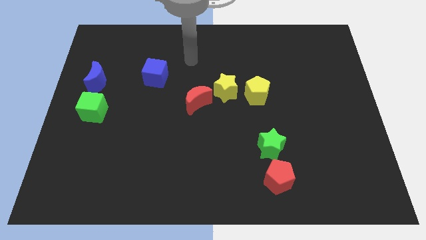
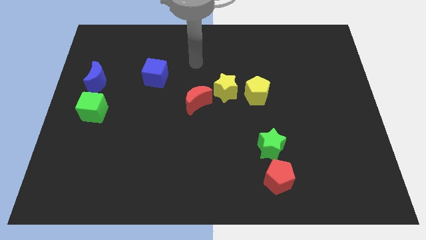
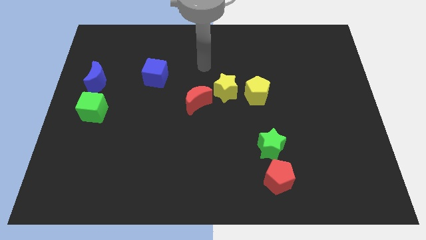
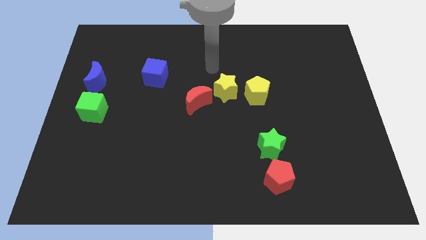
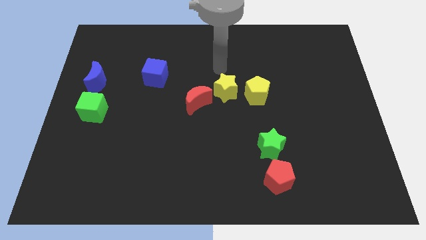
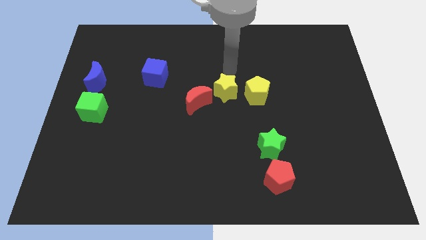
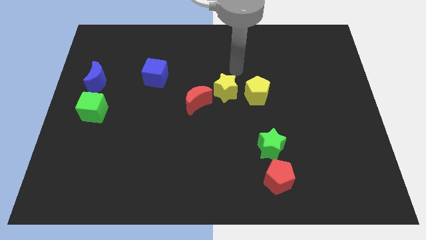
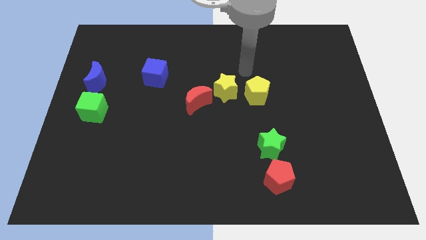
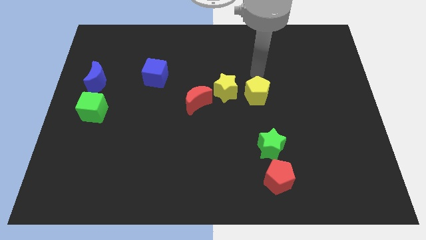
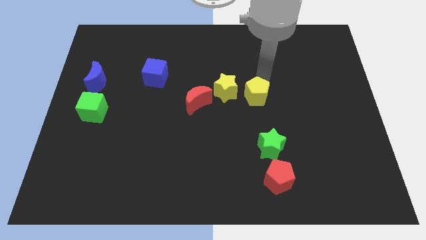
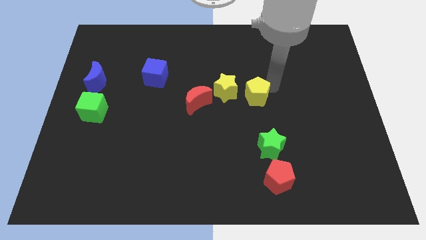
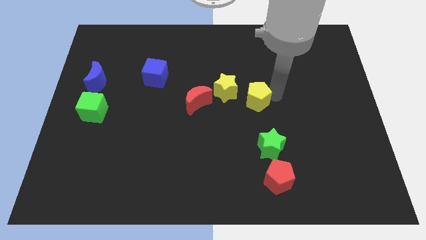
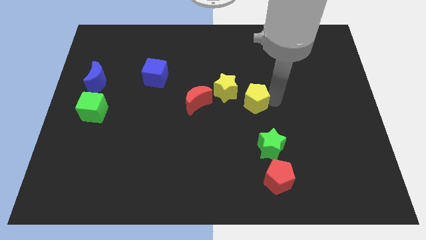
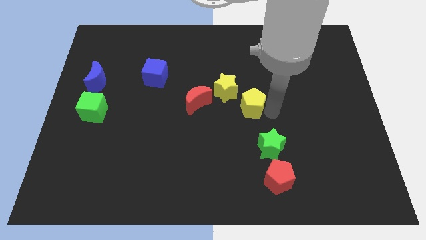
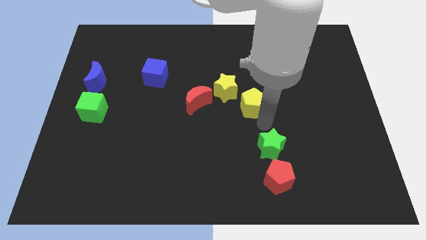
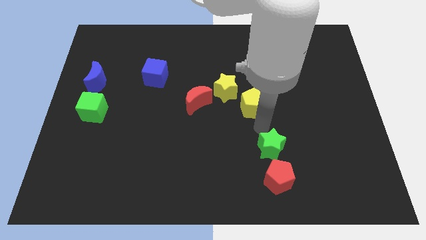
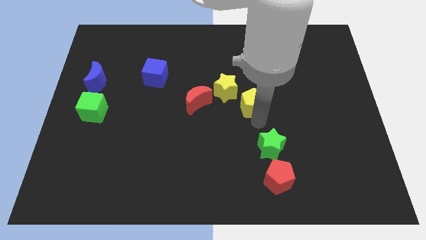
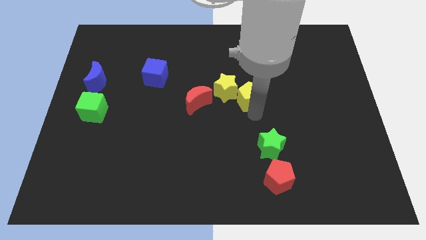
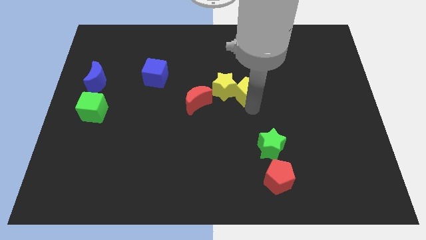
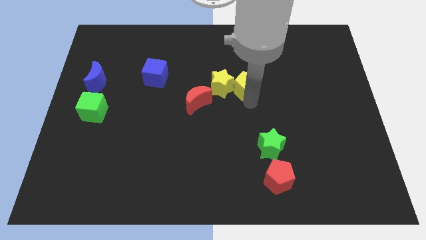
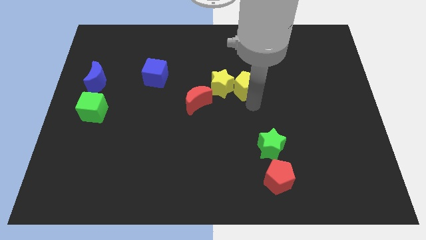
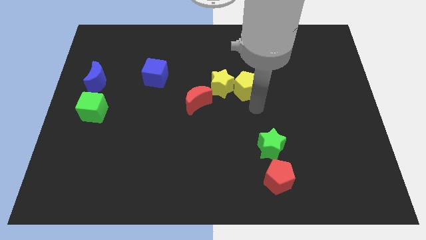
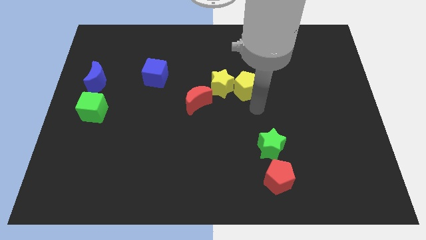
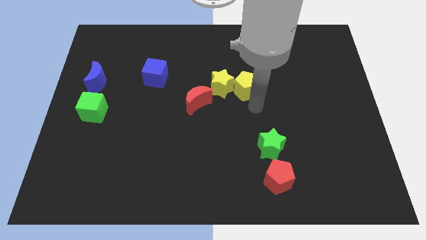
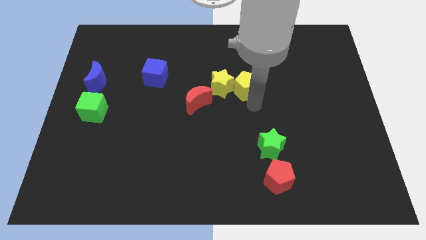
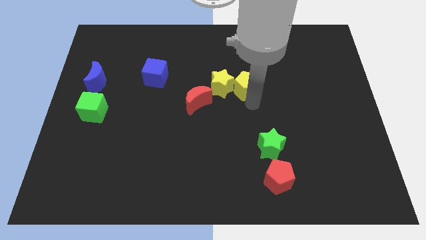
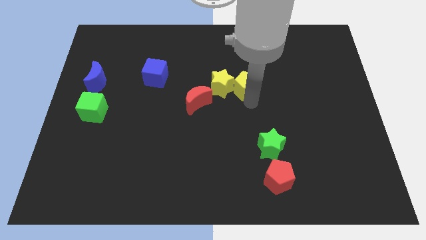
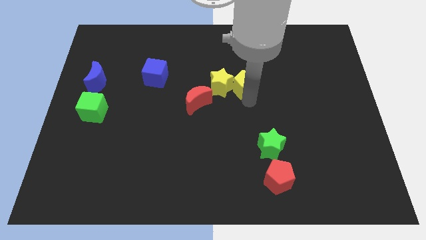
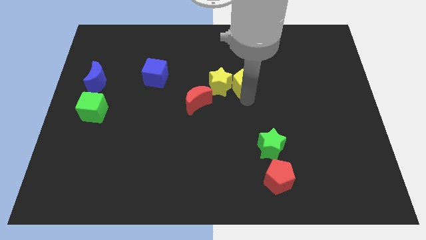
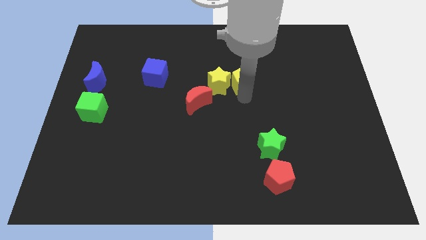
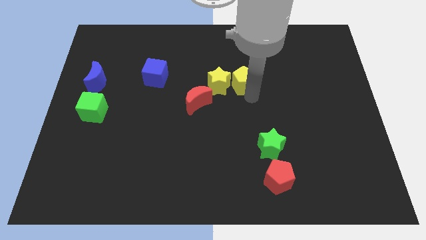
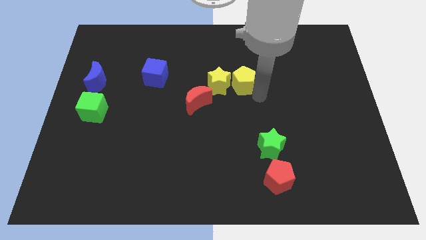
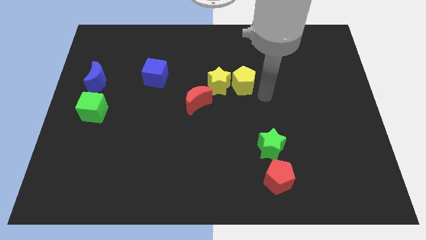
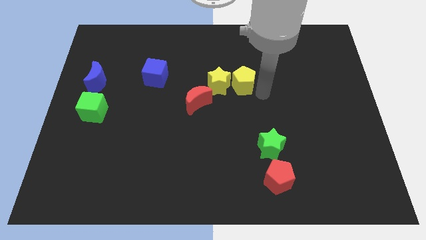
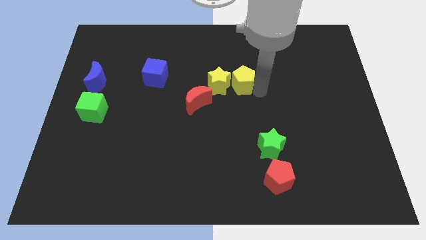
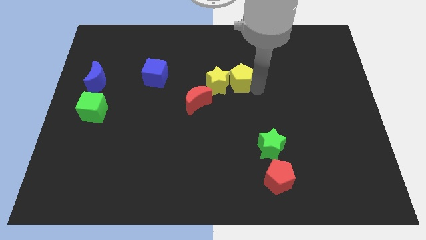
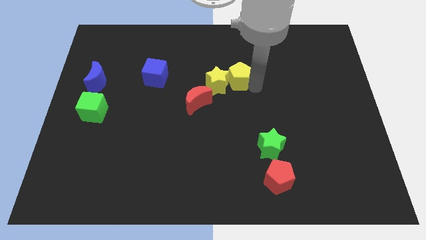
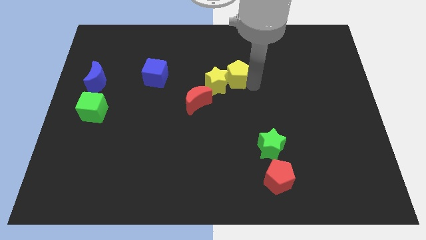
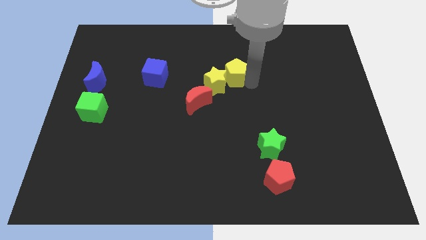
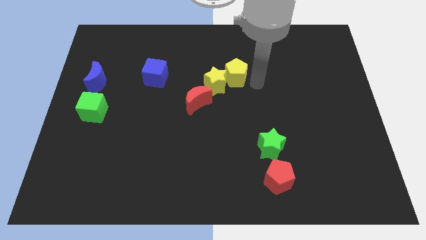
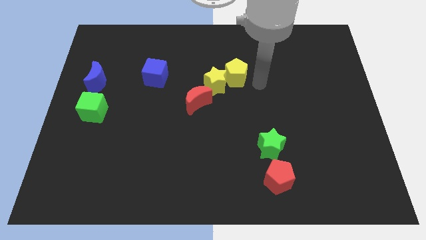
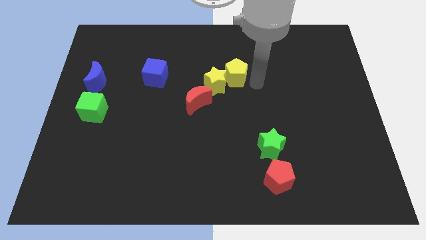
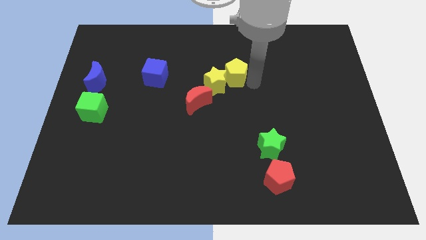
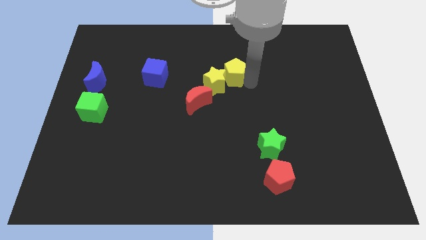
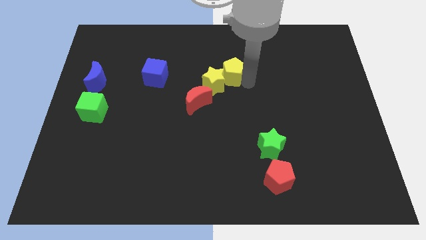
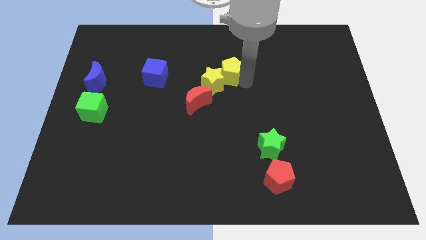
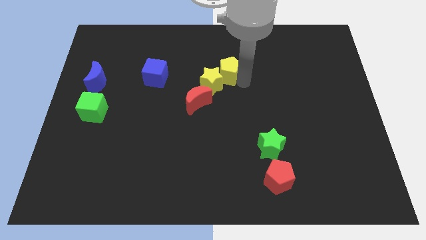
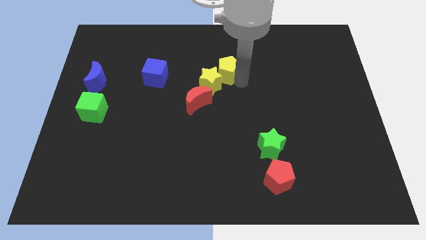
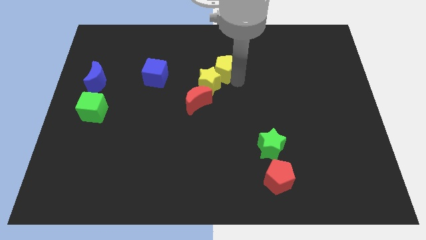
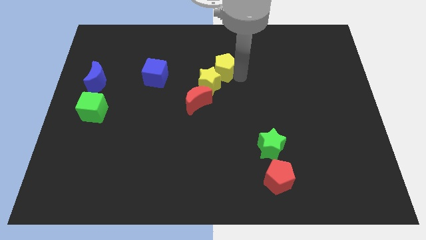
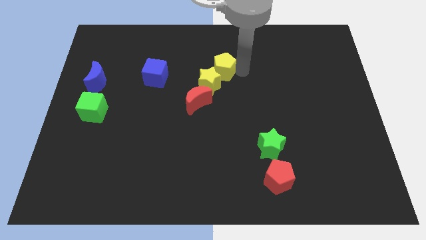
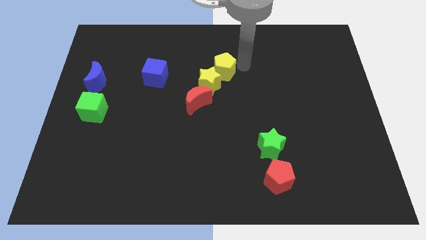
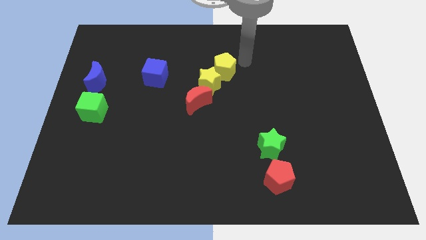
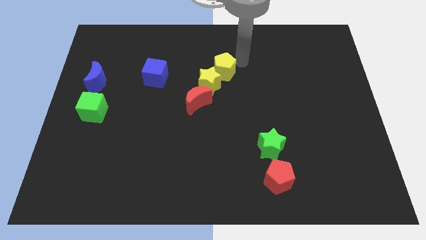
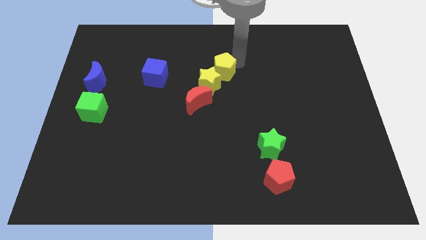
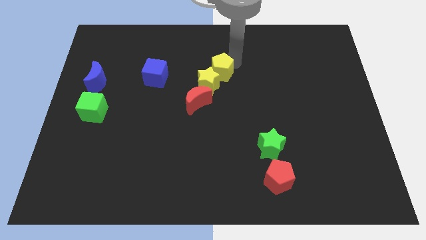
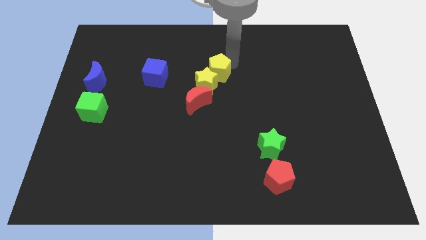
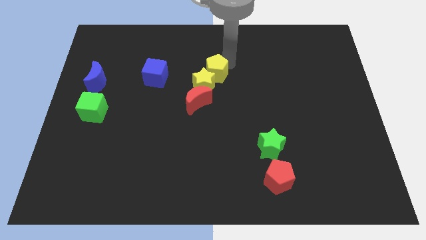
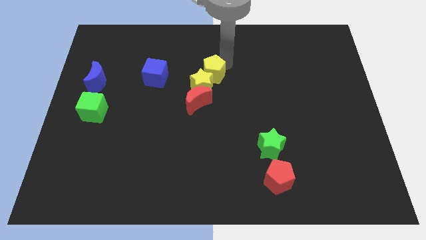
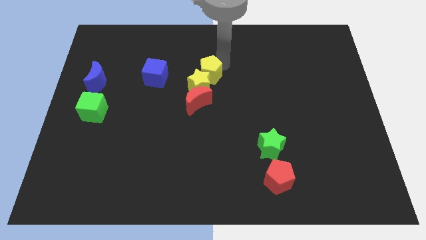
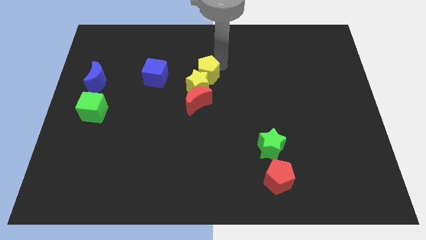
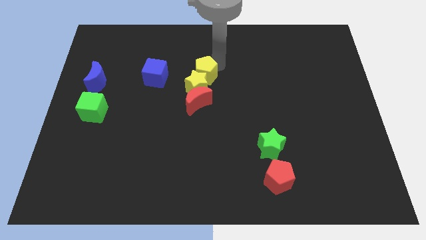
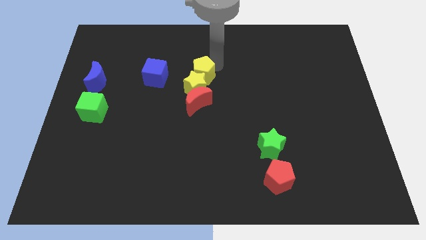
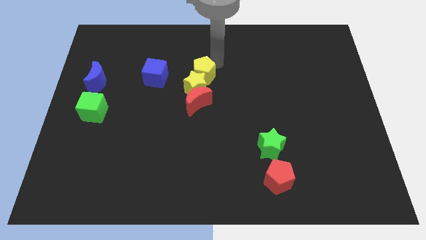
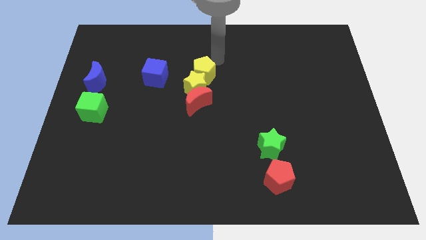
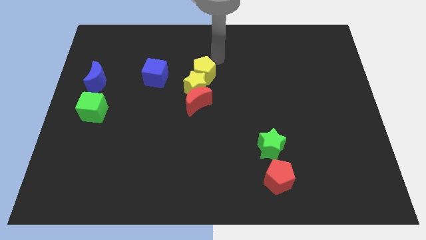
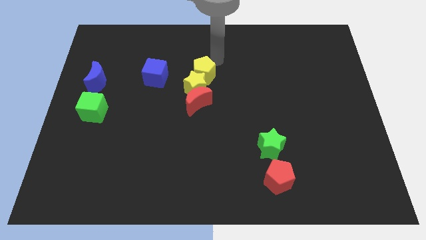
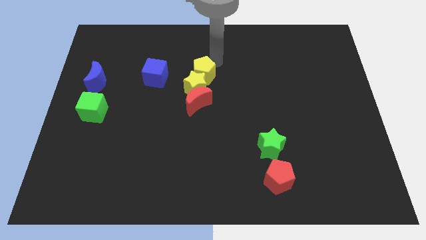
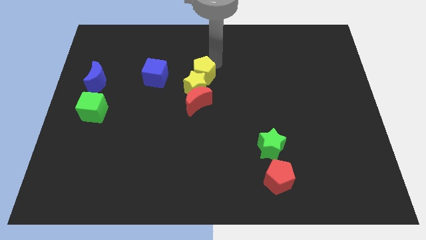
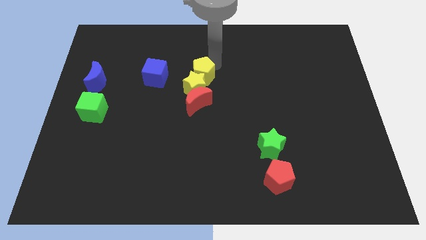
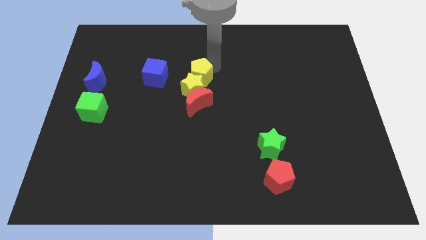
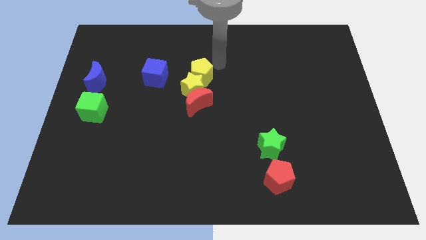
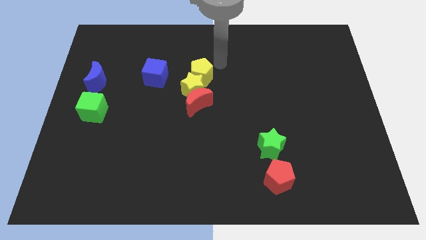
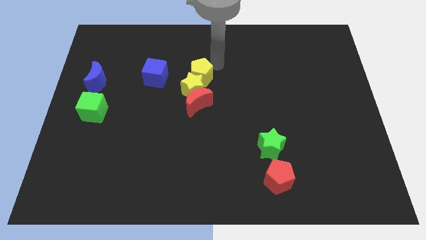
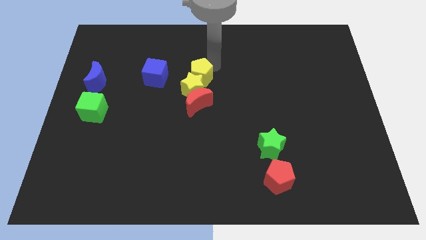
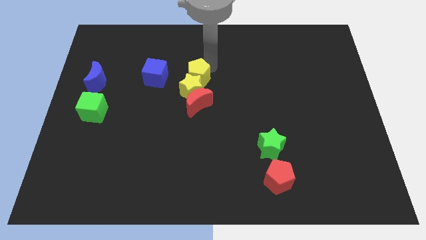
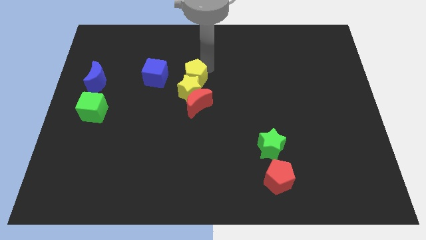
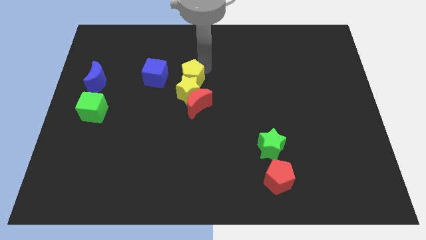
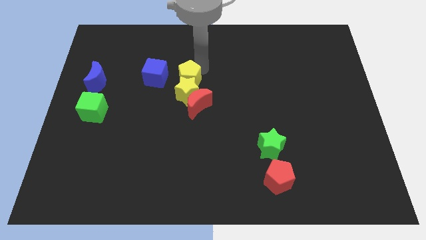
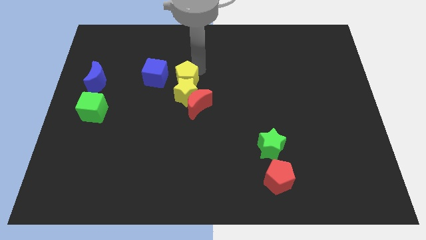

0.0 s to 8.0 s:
move the yellow pentagon to the bottom right of the blue cube
